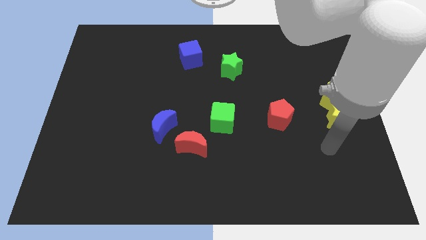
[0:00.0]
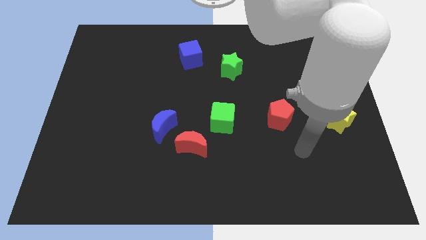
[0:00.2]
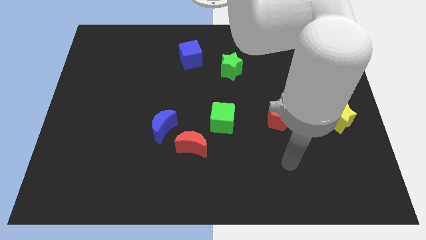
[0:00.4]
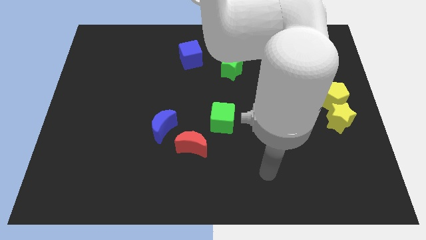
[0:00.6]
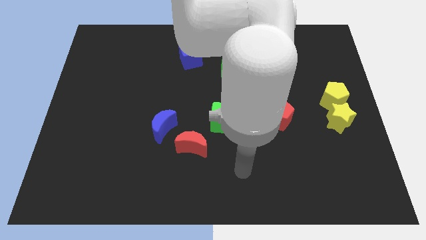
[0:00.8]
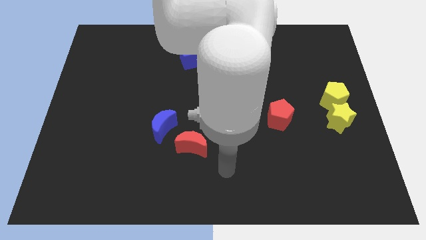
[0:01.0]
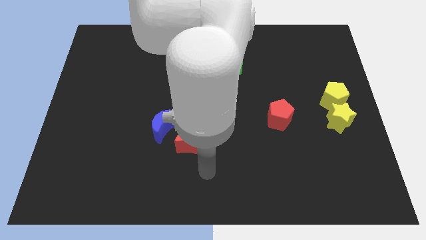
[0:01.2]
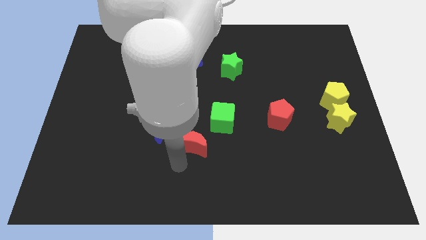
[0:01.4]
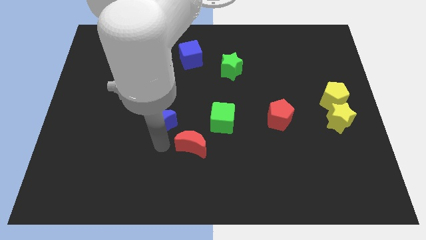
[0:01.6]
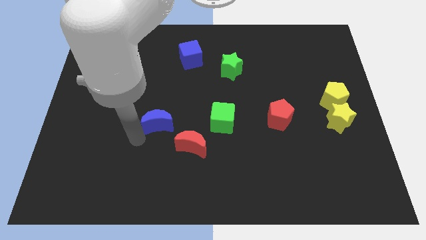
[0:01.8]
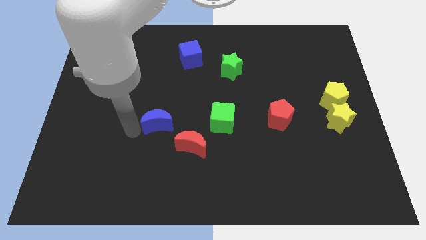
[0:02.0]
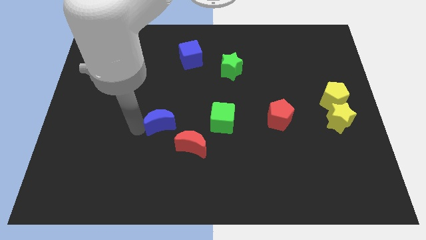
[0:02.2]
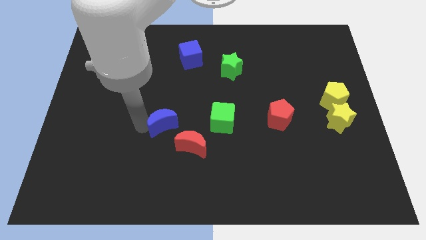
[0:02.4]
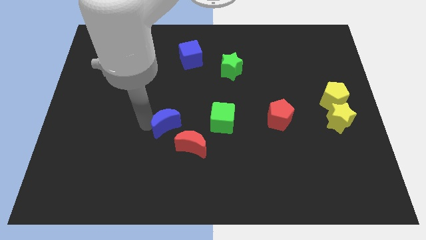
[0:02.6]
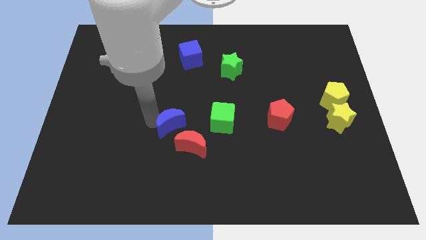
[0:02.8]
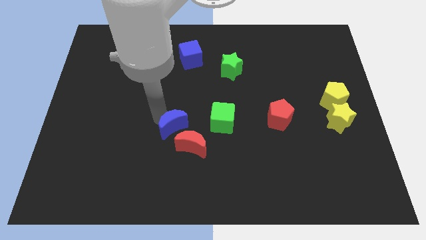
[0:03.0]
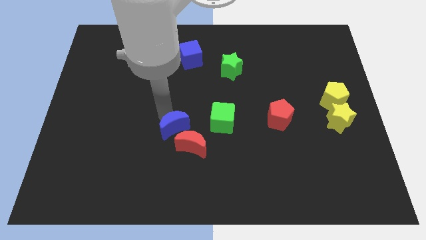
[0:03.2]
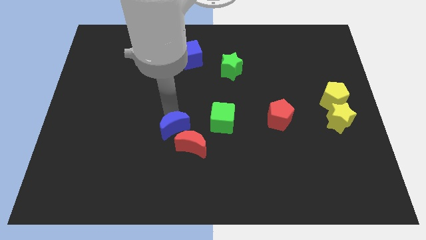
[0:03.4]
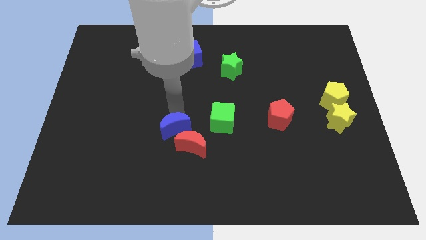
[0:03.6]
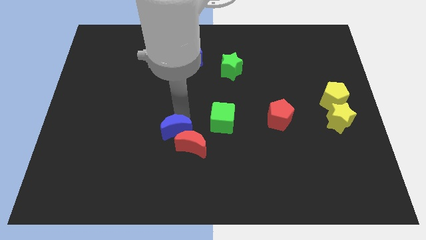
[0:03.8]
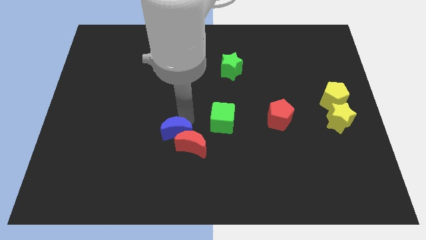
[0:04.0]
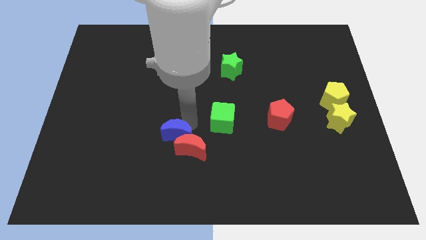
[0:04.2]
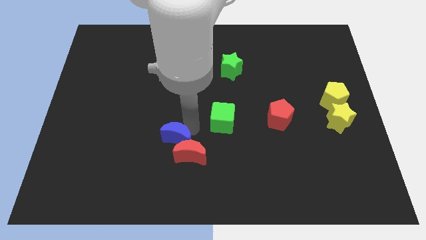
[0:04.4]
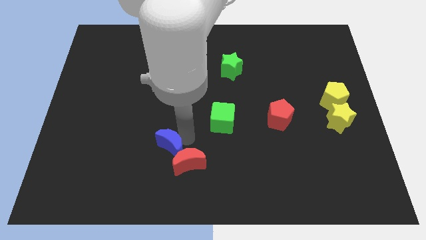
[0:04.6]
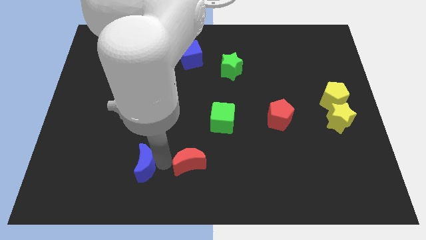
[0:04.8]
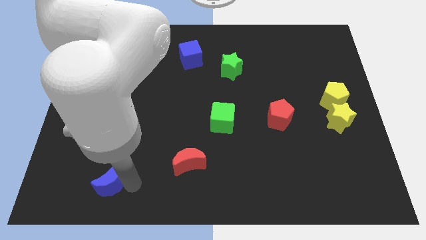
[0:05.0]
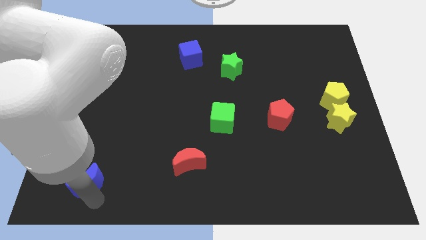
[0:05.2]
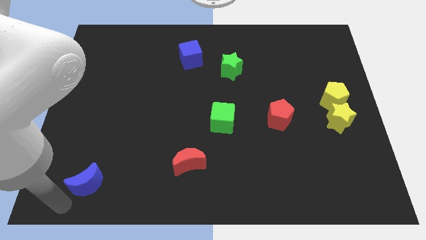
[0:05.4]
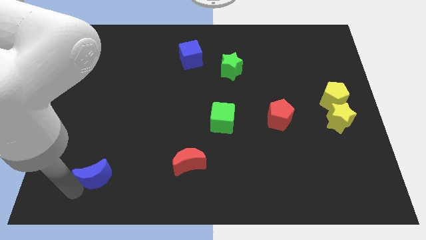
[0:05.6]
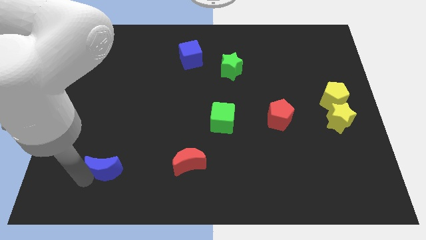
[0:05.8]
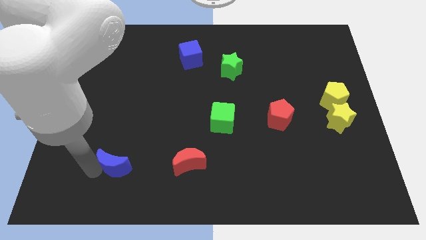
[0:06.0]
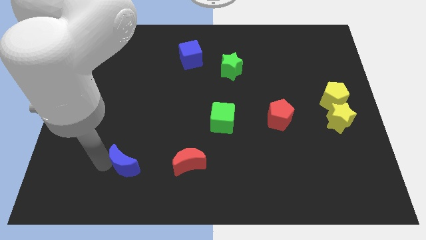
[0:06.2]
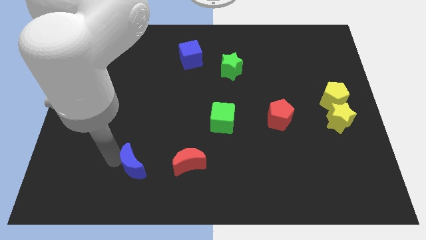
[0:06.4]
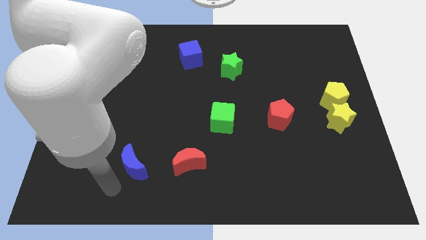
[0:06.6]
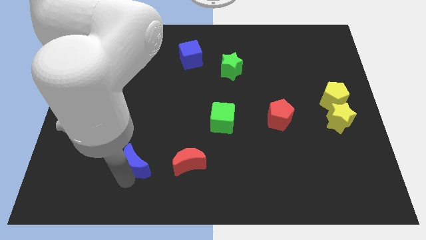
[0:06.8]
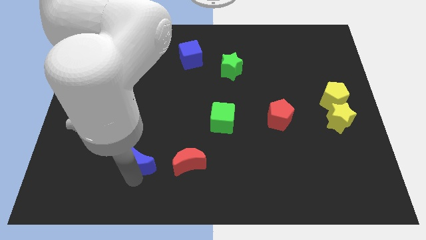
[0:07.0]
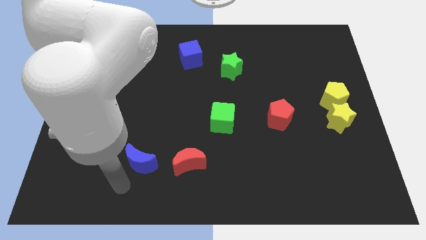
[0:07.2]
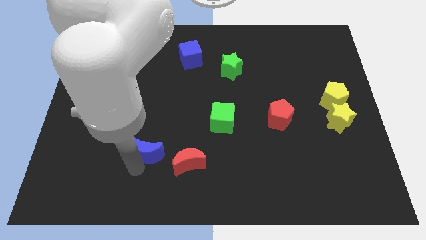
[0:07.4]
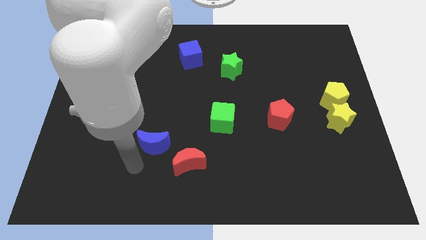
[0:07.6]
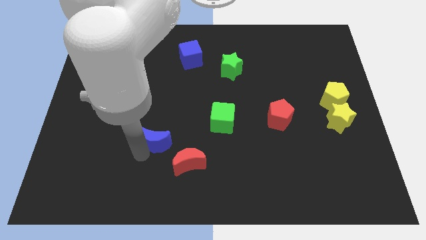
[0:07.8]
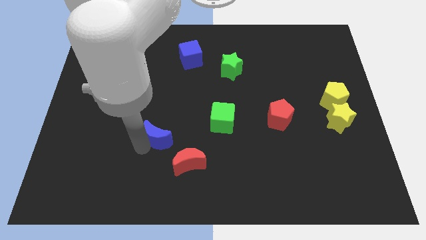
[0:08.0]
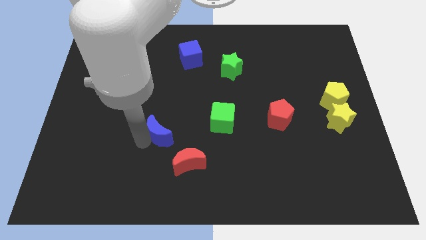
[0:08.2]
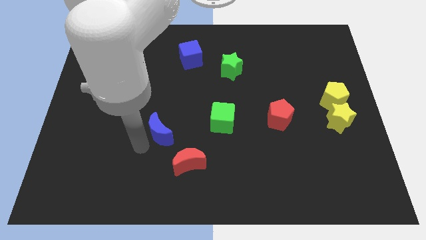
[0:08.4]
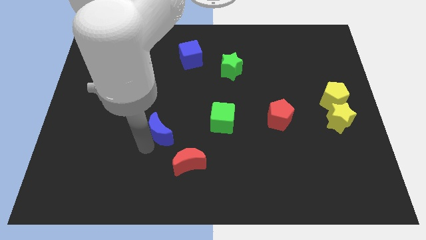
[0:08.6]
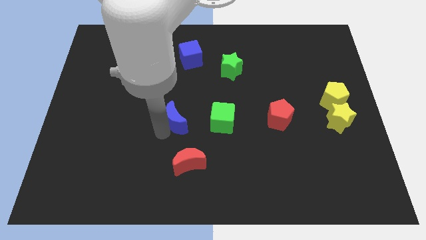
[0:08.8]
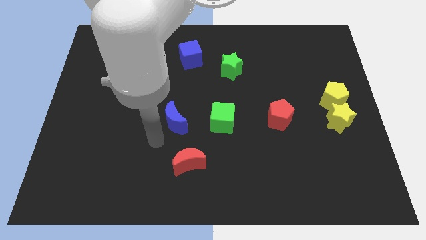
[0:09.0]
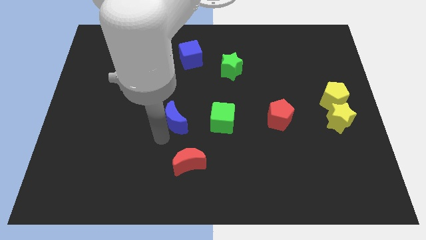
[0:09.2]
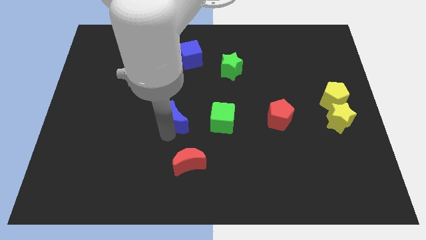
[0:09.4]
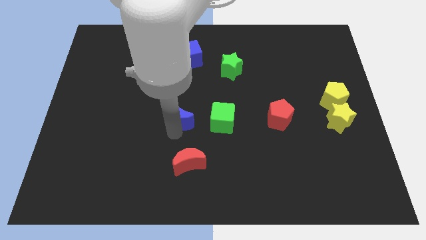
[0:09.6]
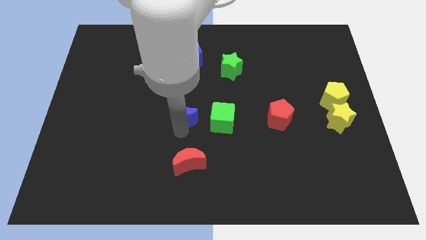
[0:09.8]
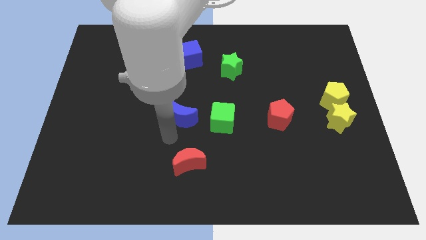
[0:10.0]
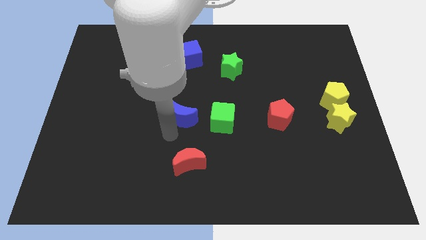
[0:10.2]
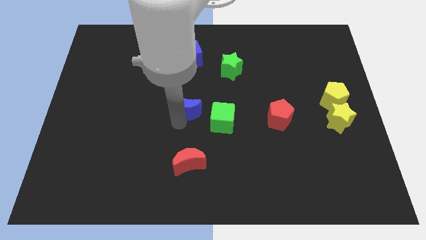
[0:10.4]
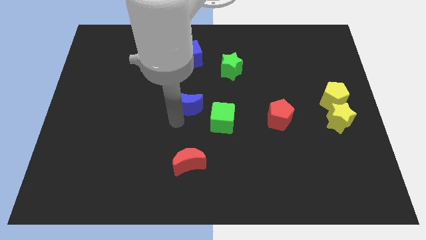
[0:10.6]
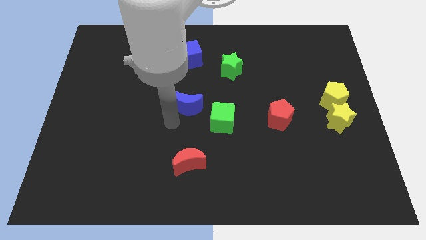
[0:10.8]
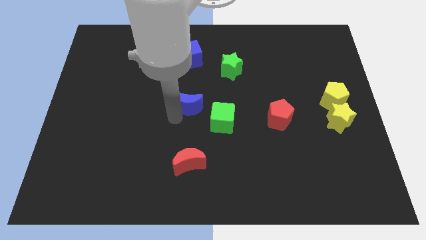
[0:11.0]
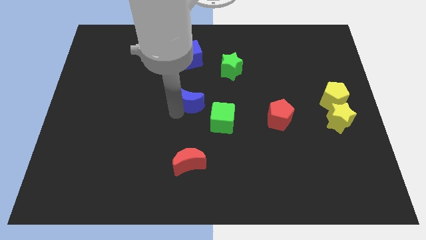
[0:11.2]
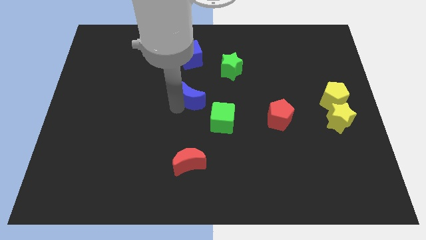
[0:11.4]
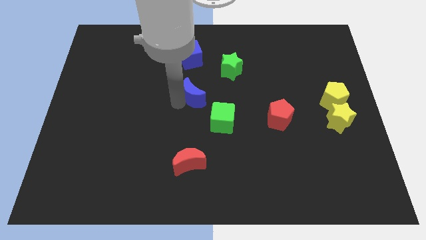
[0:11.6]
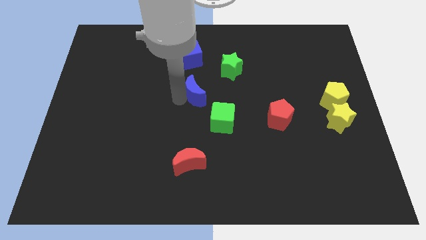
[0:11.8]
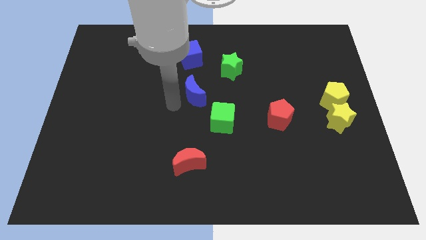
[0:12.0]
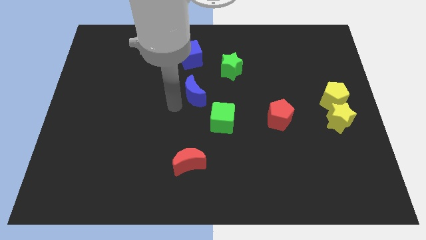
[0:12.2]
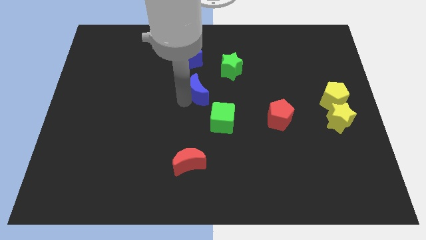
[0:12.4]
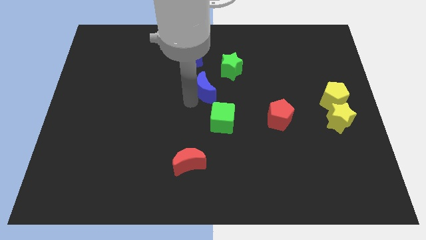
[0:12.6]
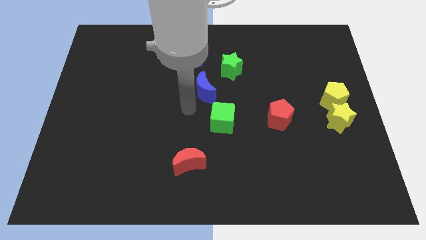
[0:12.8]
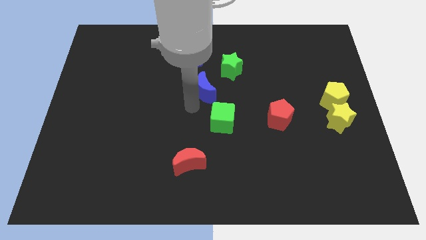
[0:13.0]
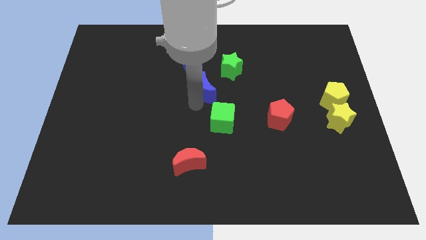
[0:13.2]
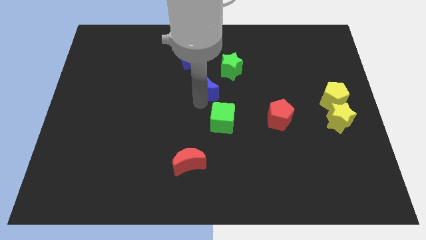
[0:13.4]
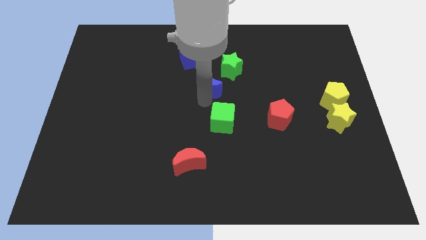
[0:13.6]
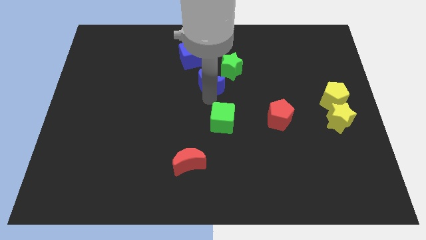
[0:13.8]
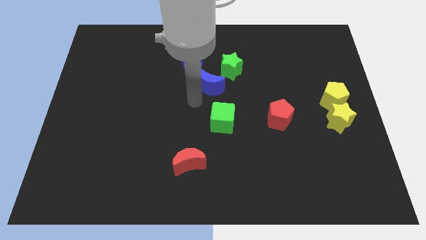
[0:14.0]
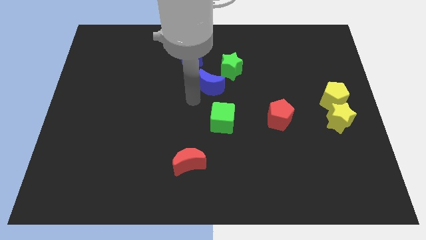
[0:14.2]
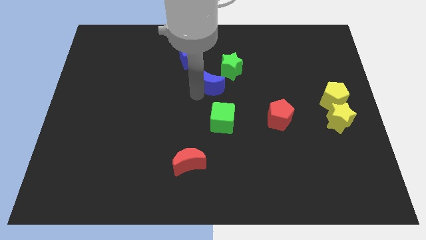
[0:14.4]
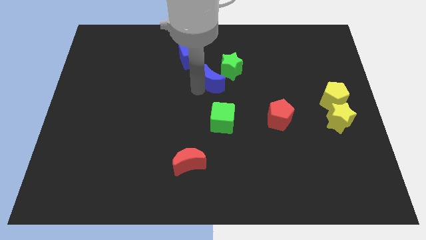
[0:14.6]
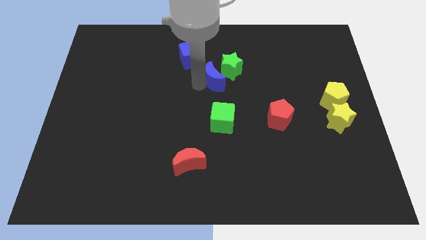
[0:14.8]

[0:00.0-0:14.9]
slide the blue moon to the green star
